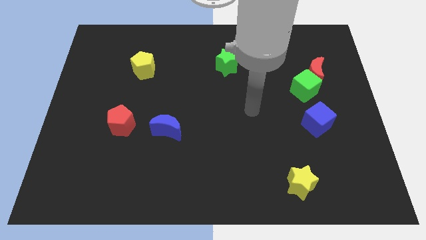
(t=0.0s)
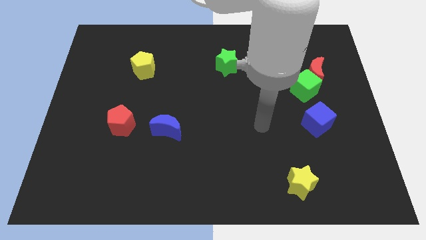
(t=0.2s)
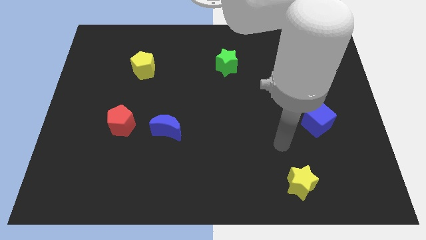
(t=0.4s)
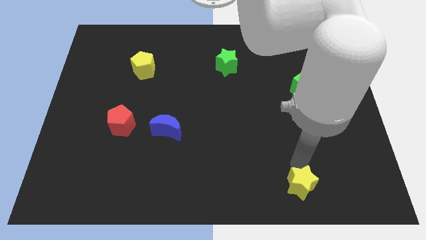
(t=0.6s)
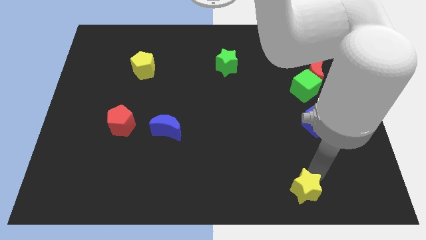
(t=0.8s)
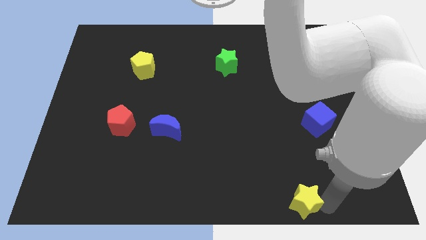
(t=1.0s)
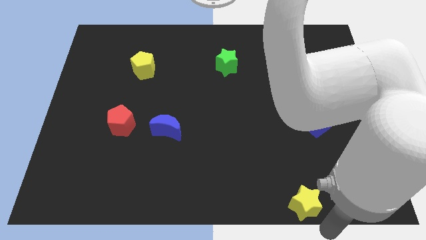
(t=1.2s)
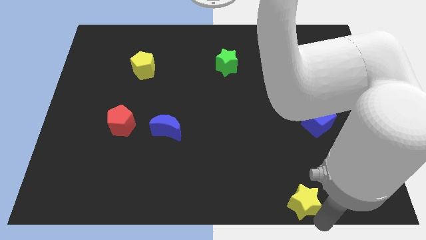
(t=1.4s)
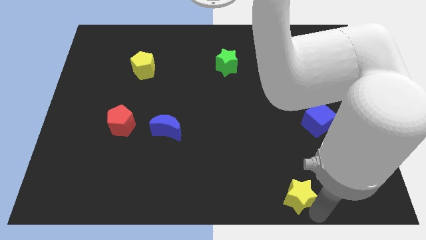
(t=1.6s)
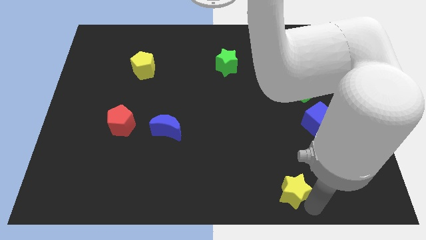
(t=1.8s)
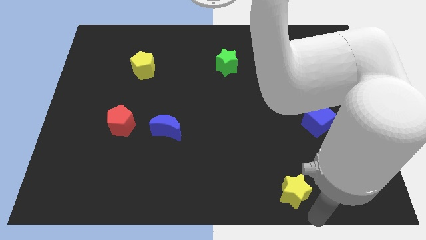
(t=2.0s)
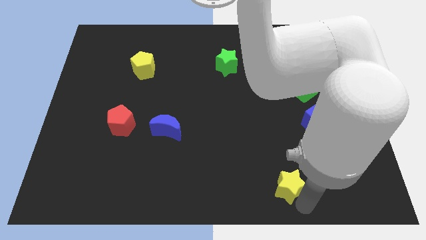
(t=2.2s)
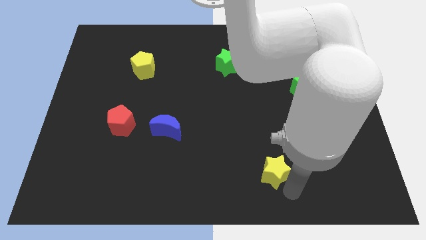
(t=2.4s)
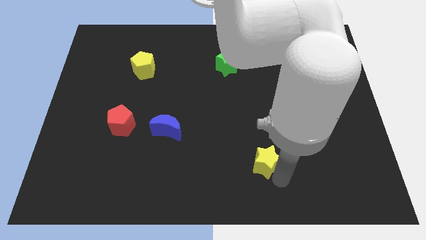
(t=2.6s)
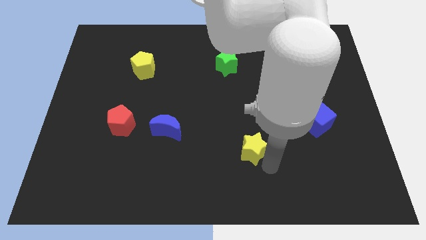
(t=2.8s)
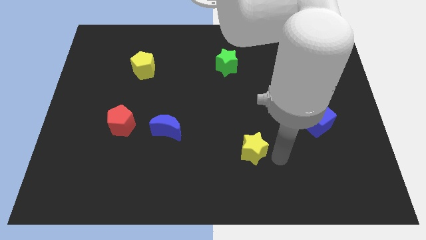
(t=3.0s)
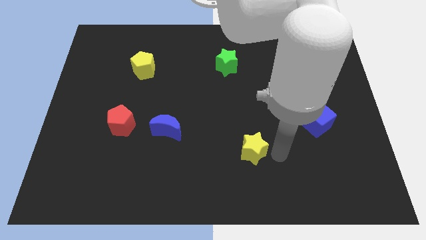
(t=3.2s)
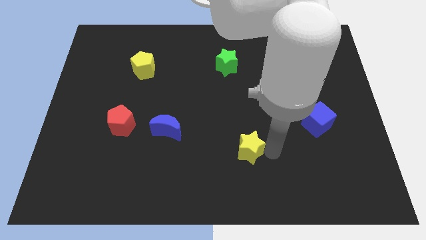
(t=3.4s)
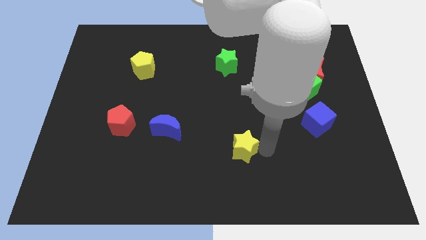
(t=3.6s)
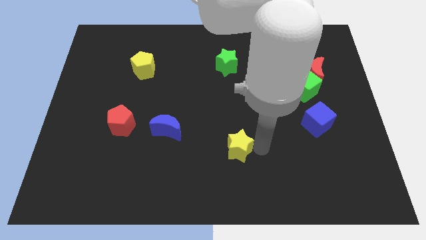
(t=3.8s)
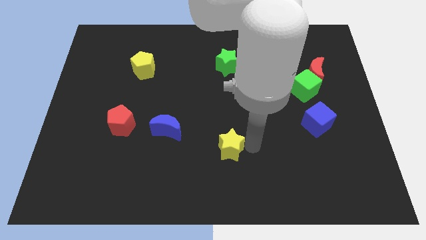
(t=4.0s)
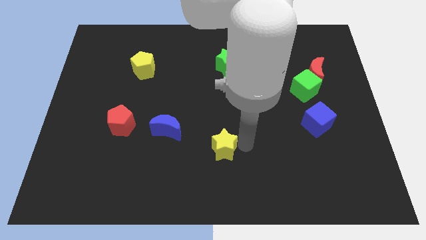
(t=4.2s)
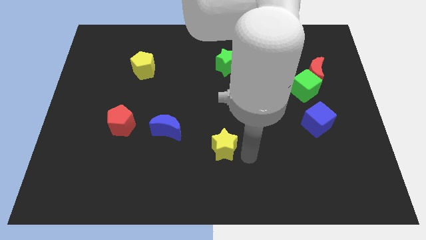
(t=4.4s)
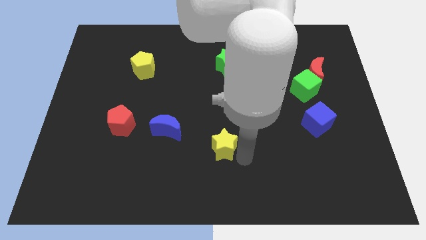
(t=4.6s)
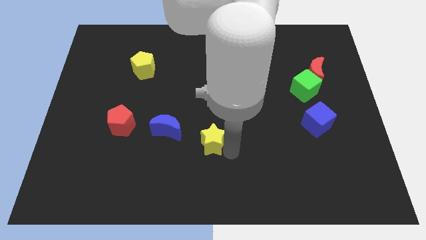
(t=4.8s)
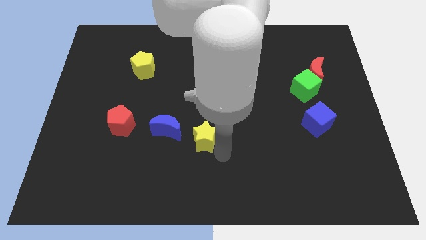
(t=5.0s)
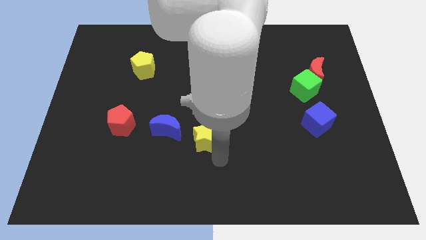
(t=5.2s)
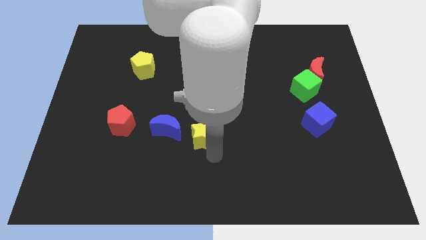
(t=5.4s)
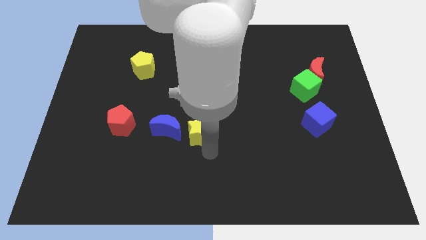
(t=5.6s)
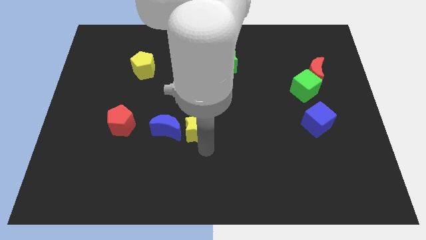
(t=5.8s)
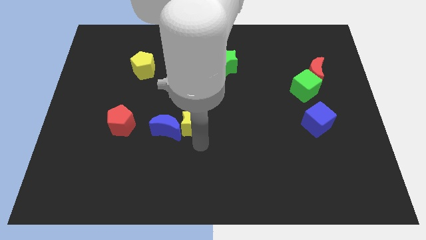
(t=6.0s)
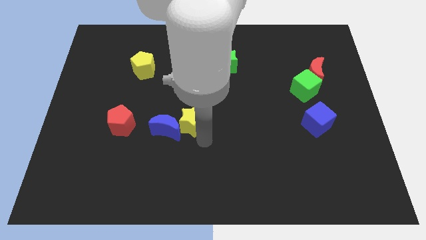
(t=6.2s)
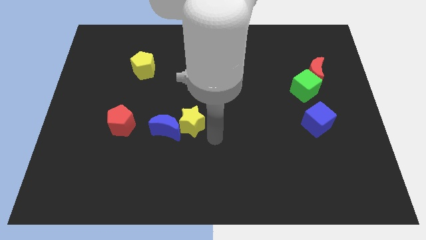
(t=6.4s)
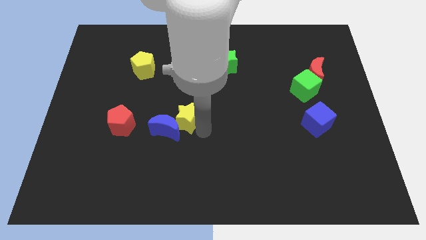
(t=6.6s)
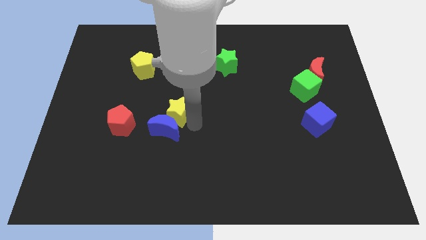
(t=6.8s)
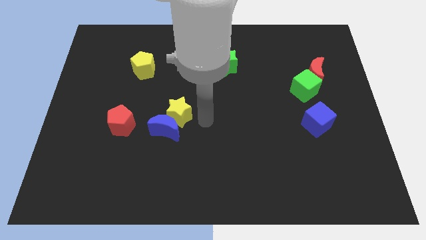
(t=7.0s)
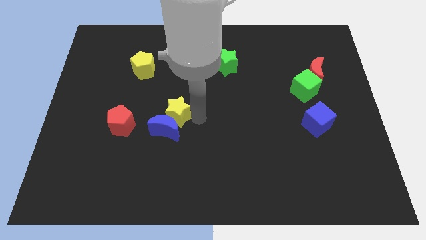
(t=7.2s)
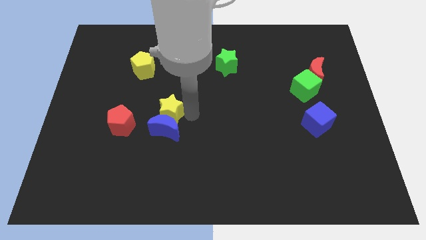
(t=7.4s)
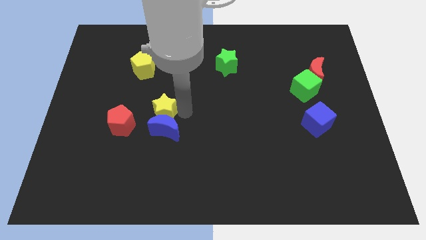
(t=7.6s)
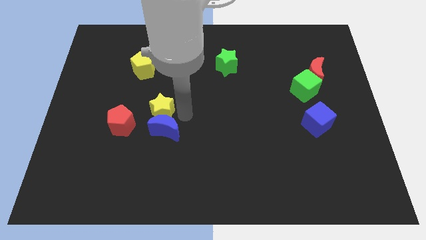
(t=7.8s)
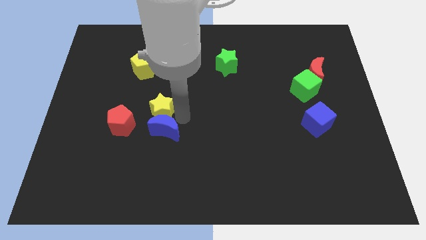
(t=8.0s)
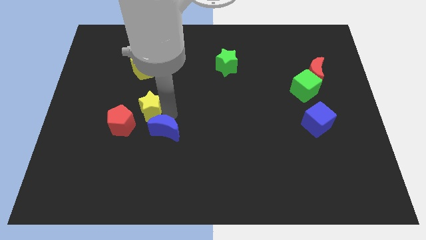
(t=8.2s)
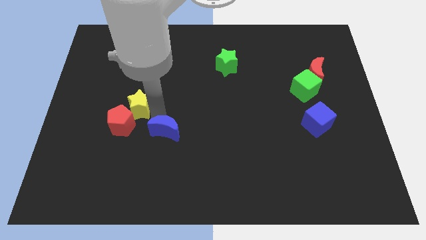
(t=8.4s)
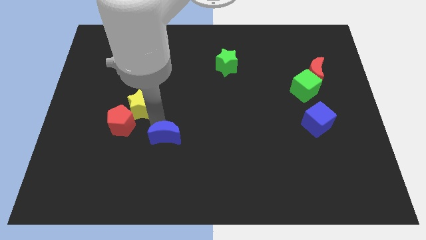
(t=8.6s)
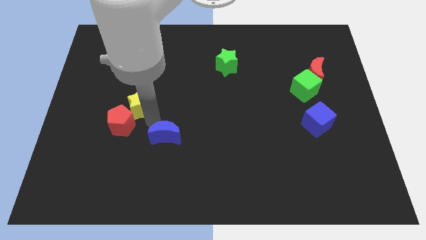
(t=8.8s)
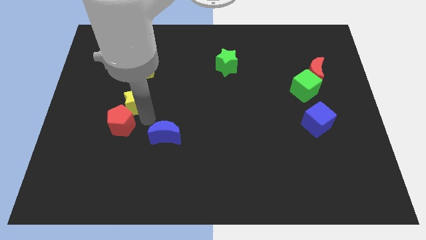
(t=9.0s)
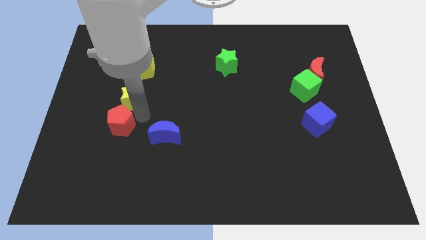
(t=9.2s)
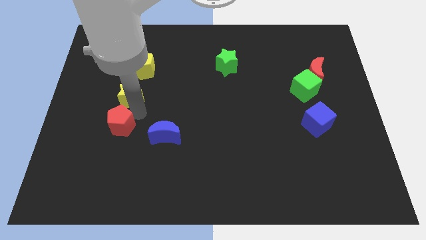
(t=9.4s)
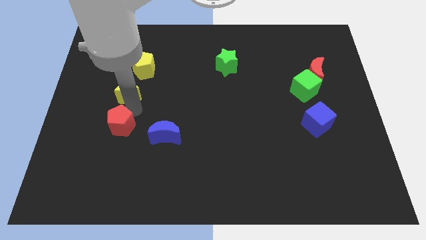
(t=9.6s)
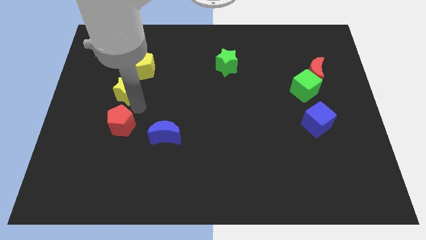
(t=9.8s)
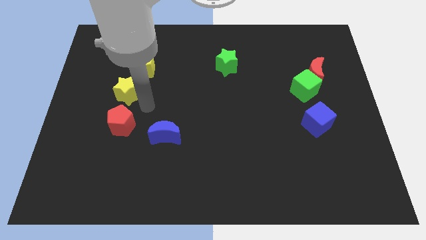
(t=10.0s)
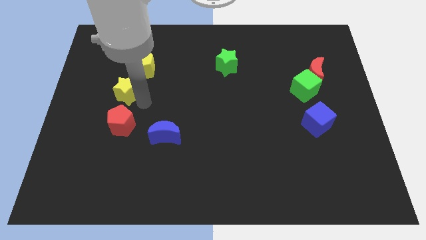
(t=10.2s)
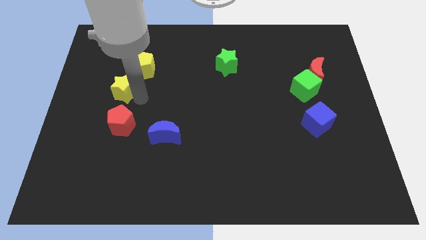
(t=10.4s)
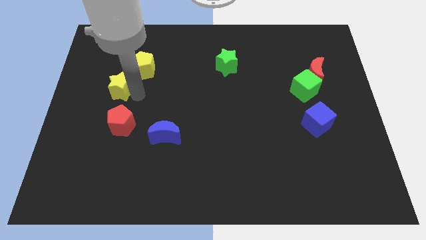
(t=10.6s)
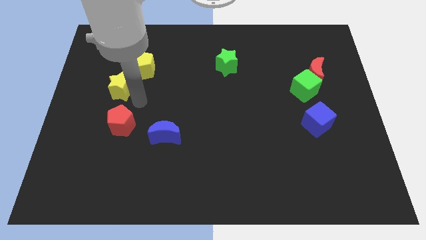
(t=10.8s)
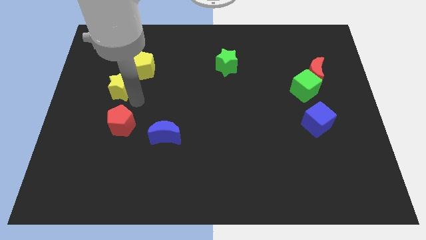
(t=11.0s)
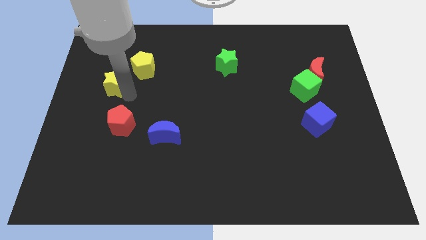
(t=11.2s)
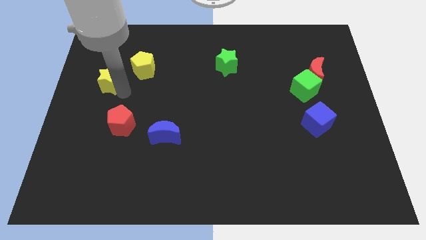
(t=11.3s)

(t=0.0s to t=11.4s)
slide the yellow star to the left of the yellow pentagon

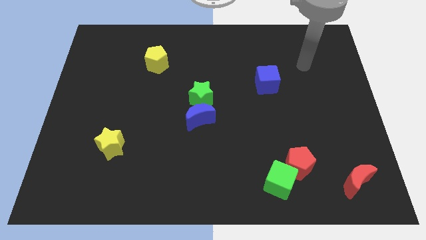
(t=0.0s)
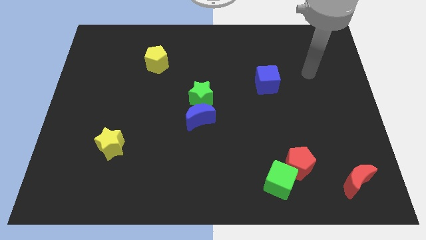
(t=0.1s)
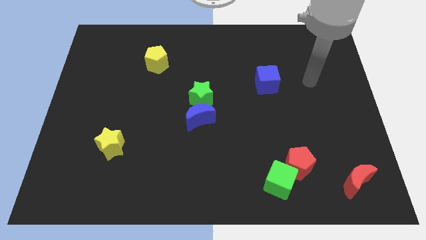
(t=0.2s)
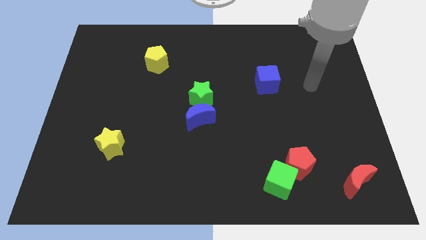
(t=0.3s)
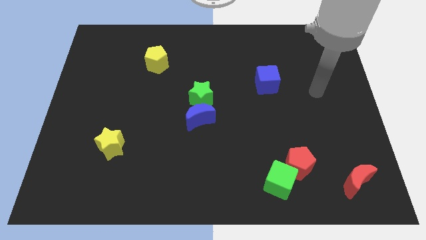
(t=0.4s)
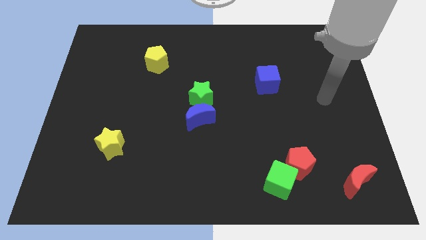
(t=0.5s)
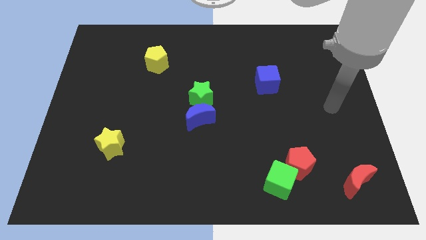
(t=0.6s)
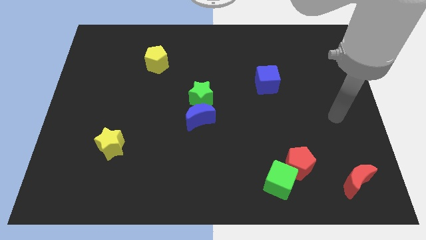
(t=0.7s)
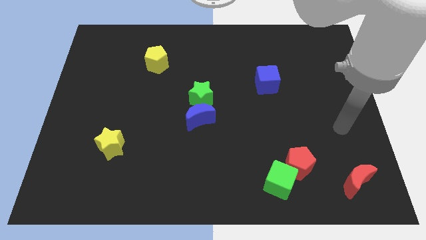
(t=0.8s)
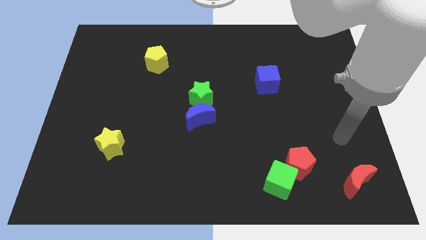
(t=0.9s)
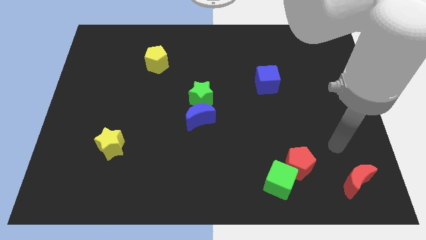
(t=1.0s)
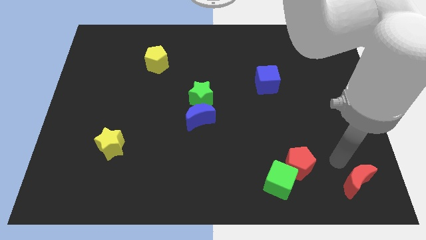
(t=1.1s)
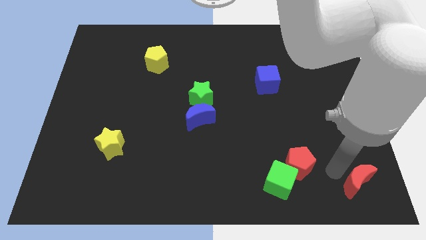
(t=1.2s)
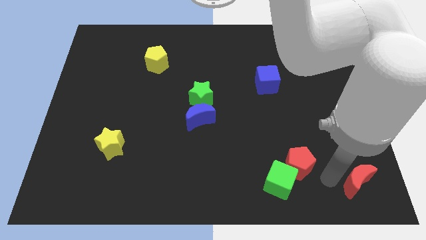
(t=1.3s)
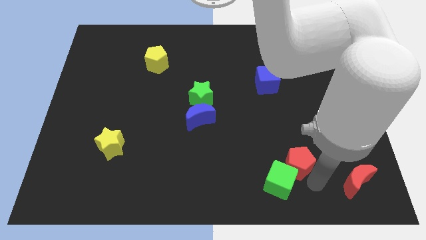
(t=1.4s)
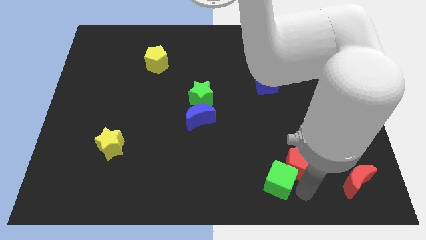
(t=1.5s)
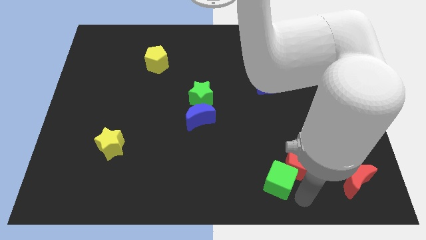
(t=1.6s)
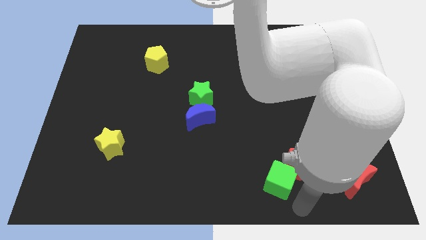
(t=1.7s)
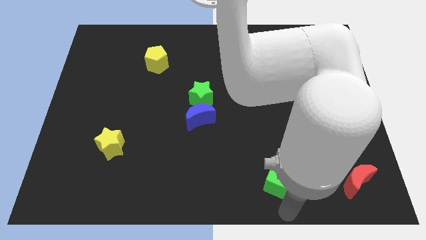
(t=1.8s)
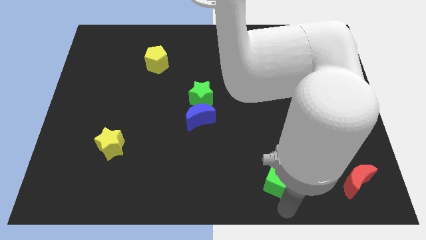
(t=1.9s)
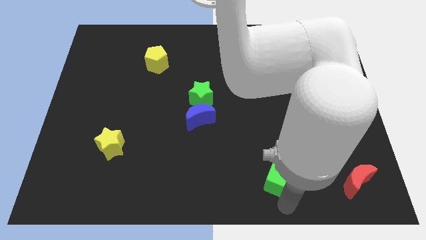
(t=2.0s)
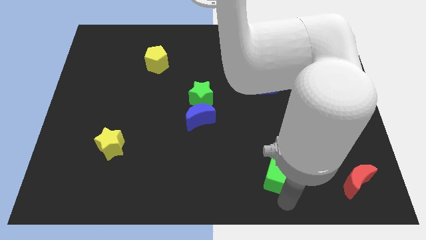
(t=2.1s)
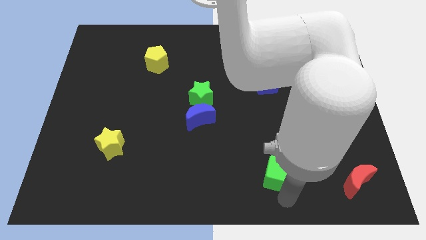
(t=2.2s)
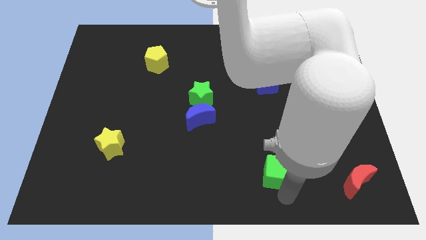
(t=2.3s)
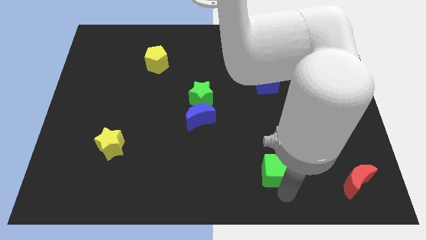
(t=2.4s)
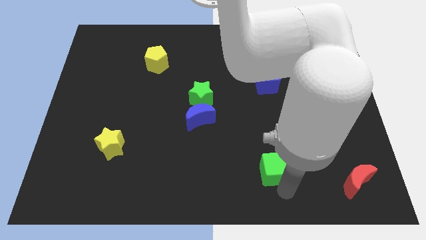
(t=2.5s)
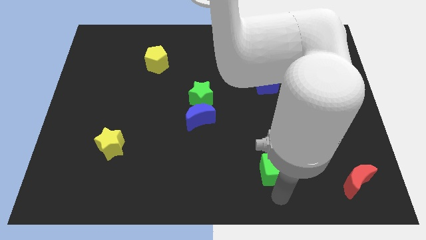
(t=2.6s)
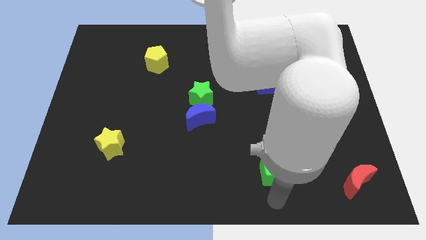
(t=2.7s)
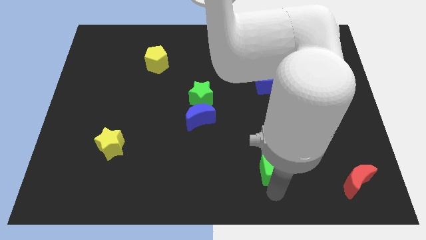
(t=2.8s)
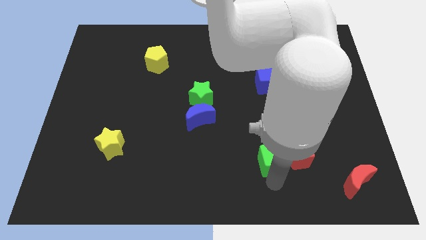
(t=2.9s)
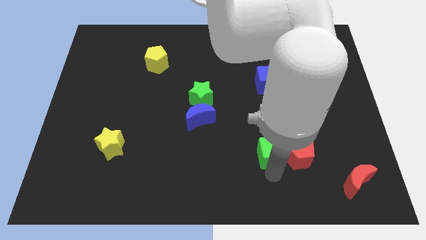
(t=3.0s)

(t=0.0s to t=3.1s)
push the green cube to the top left side of the red pentagon
